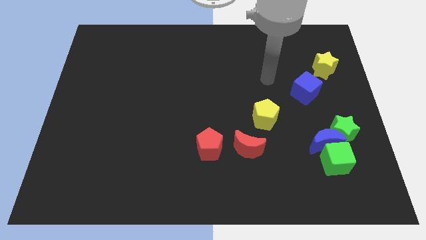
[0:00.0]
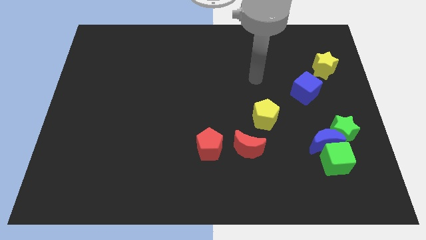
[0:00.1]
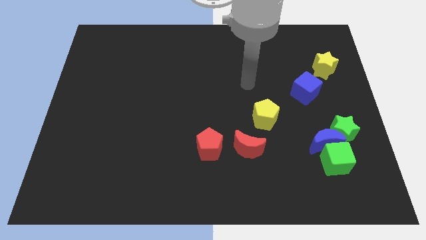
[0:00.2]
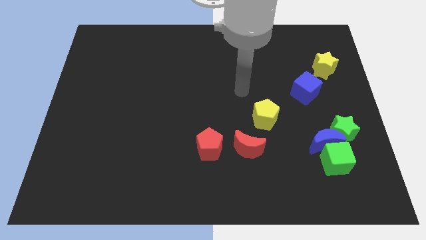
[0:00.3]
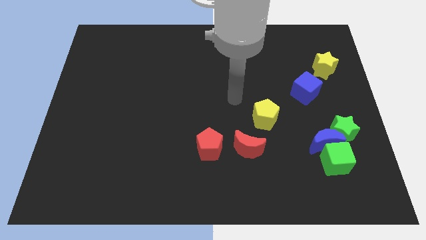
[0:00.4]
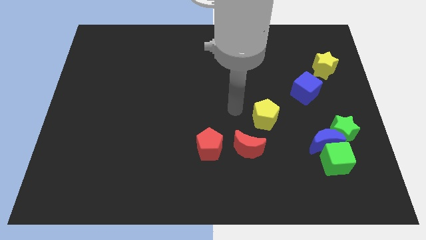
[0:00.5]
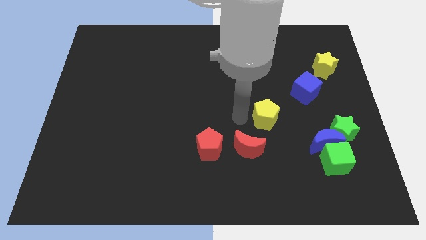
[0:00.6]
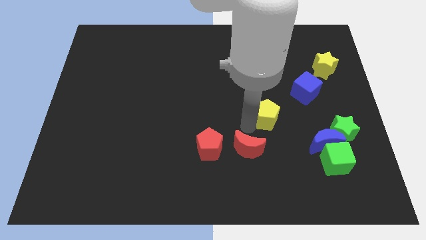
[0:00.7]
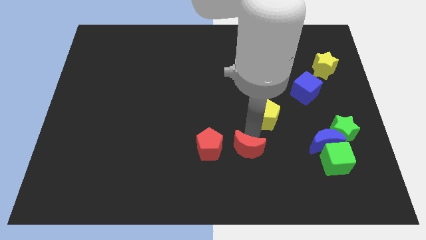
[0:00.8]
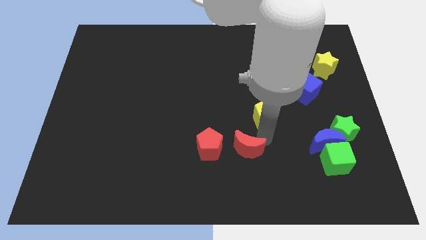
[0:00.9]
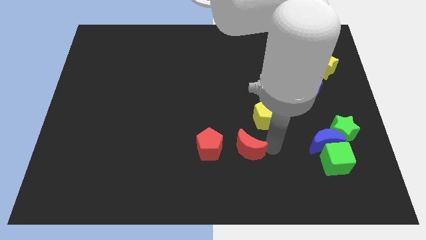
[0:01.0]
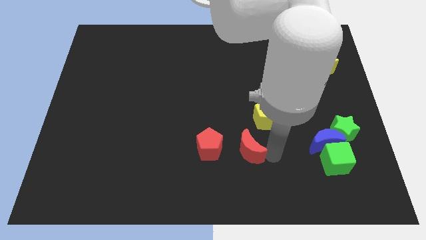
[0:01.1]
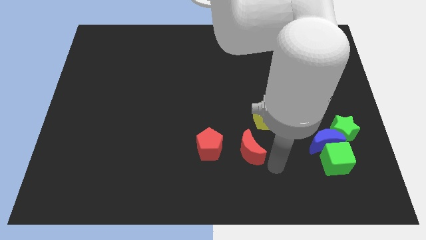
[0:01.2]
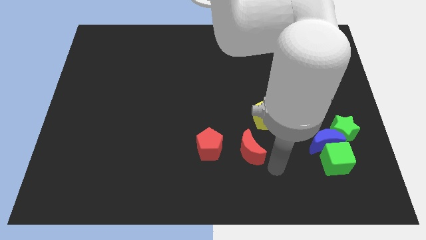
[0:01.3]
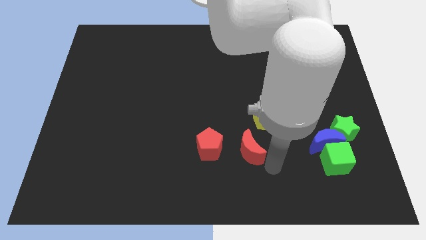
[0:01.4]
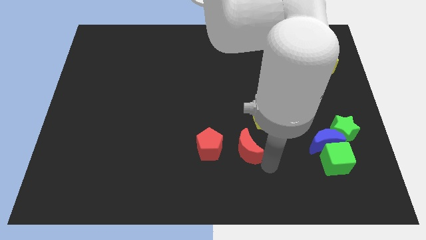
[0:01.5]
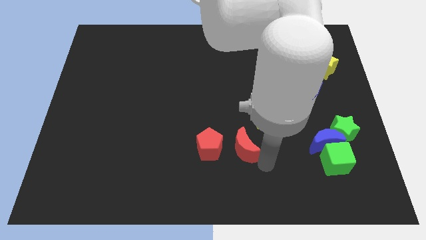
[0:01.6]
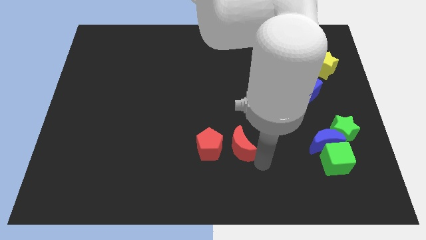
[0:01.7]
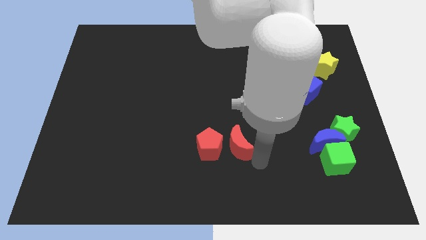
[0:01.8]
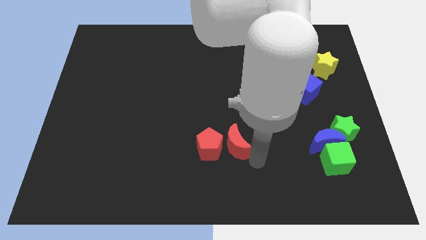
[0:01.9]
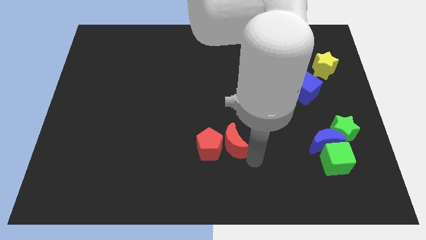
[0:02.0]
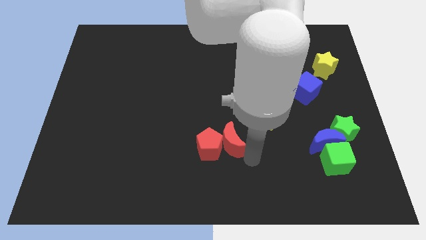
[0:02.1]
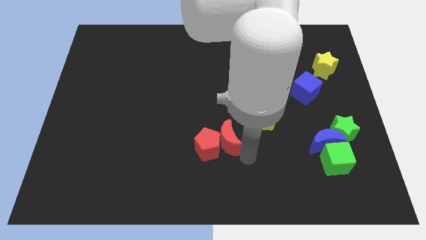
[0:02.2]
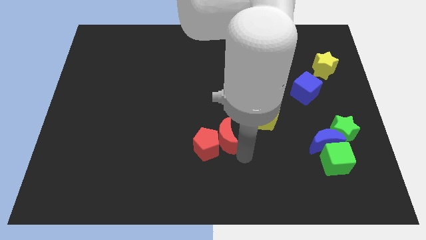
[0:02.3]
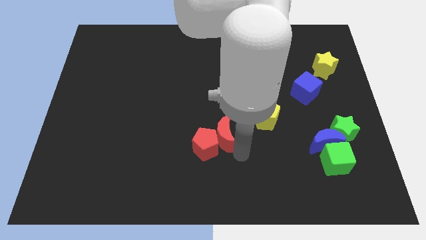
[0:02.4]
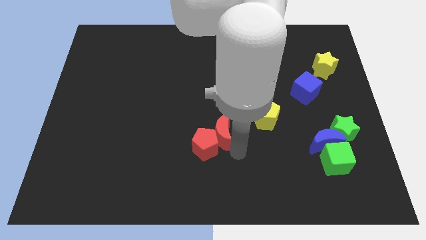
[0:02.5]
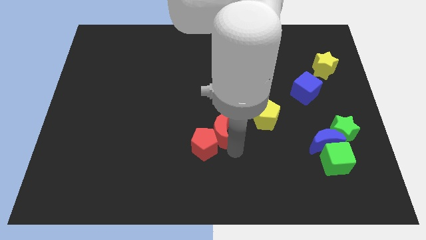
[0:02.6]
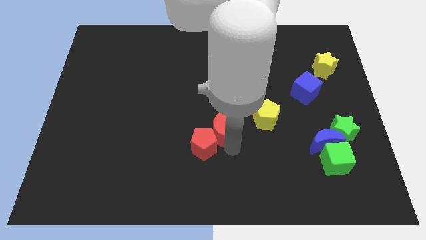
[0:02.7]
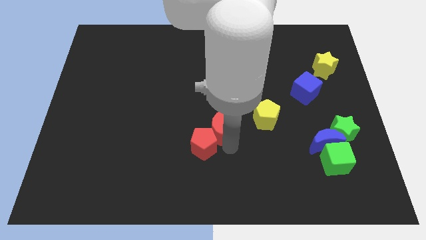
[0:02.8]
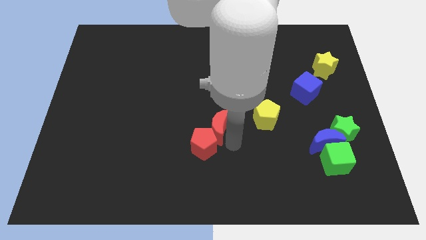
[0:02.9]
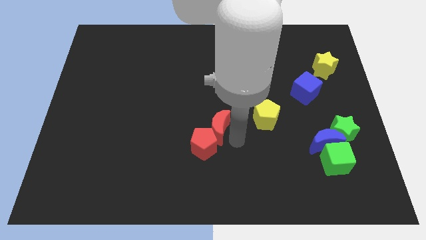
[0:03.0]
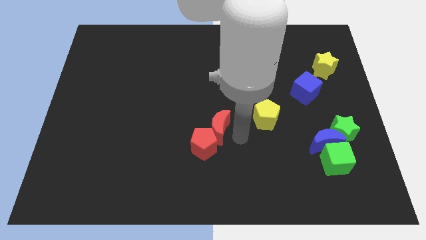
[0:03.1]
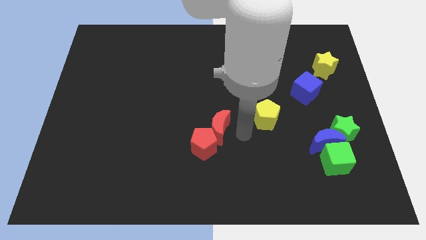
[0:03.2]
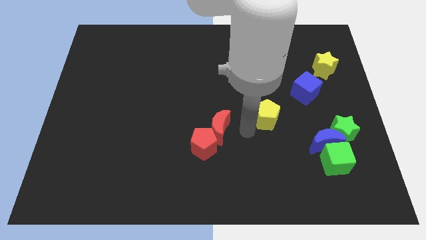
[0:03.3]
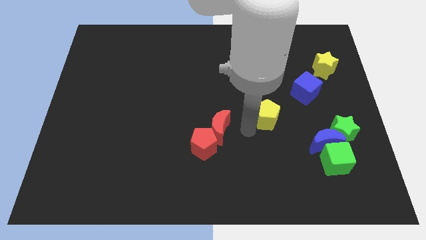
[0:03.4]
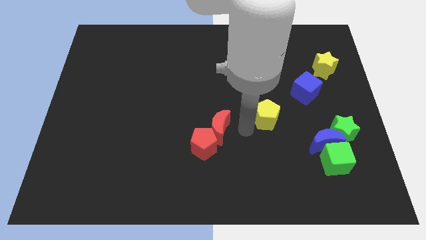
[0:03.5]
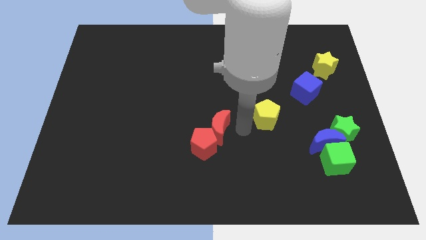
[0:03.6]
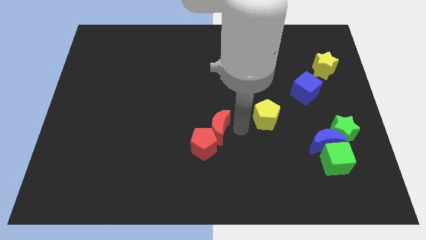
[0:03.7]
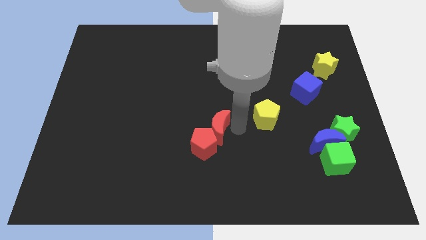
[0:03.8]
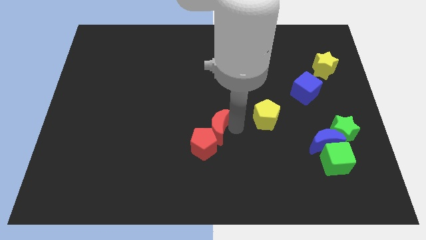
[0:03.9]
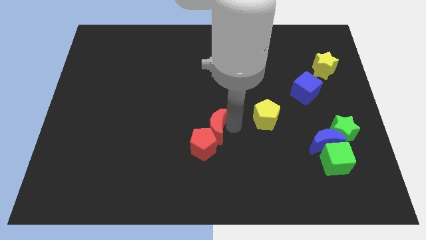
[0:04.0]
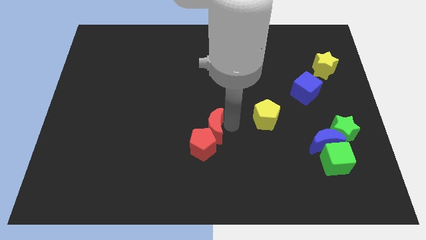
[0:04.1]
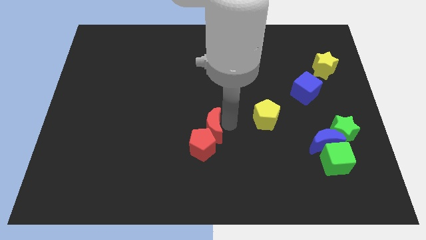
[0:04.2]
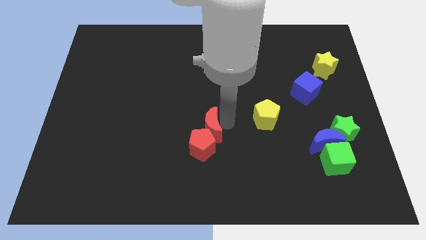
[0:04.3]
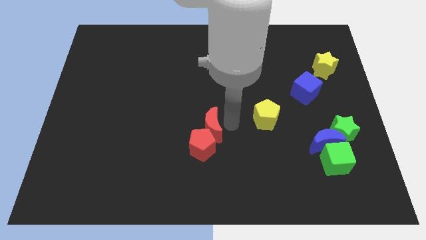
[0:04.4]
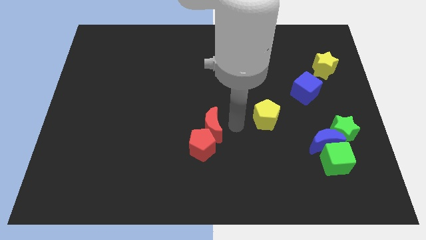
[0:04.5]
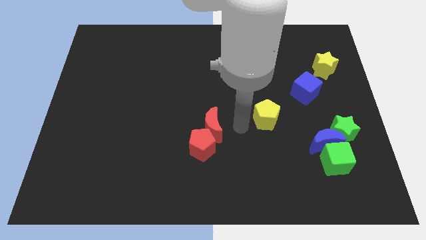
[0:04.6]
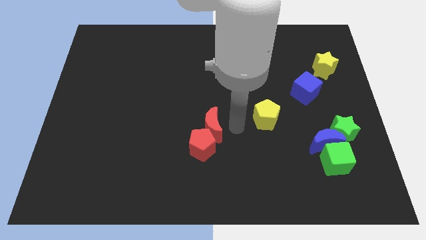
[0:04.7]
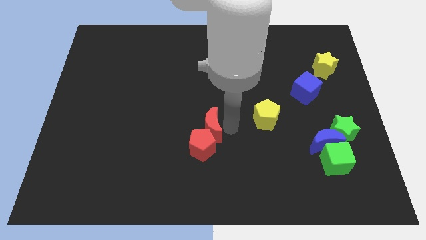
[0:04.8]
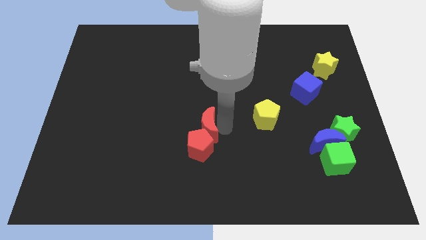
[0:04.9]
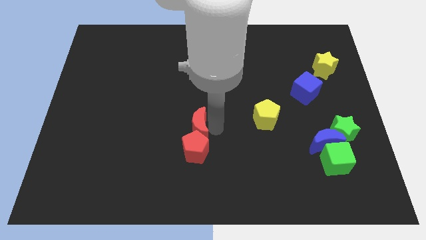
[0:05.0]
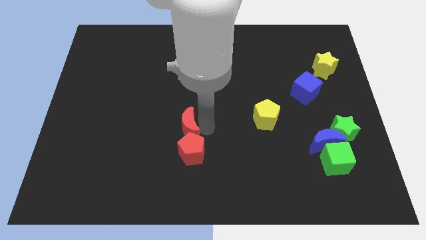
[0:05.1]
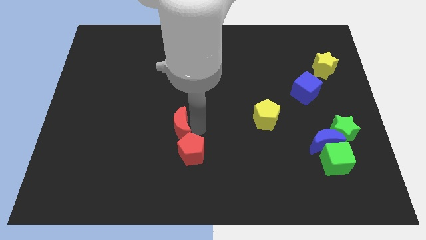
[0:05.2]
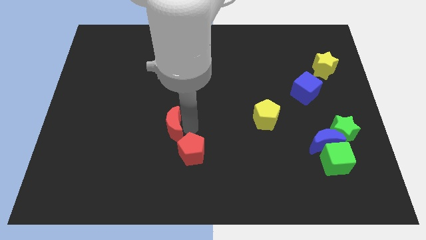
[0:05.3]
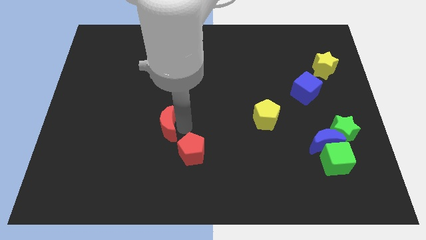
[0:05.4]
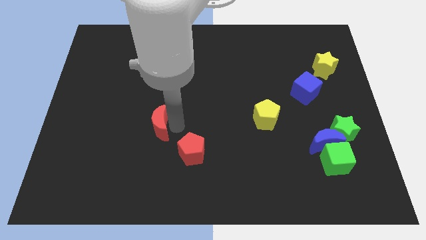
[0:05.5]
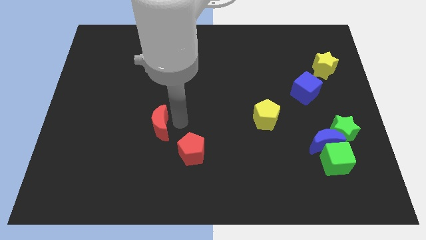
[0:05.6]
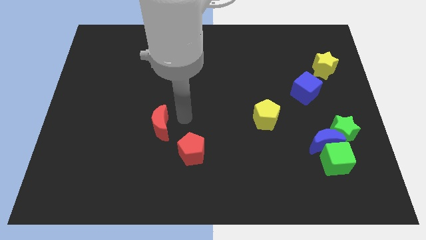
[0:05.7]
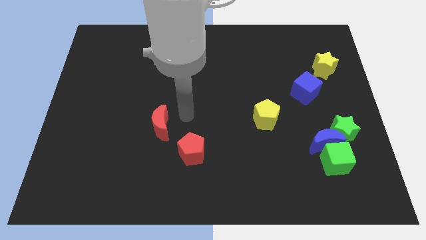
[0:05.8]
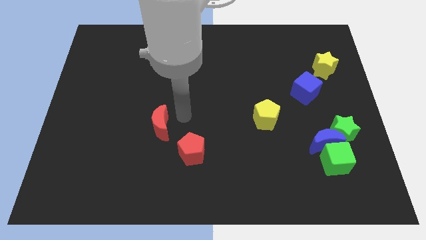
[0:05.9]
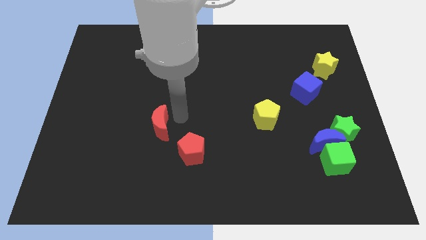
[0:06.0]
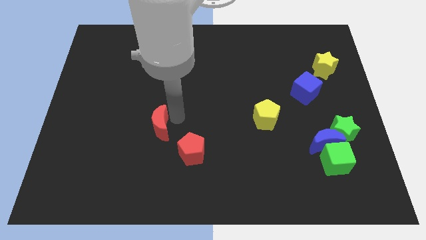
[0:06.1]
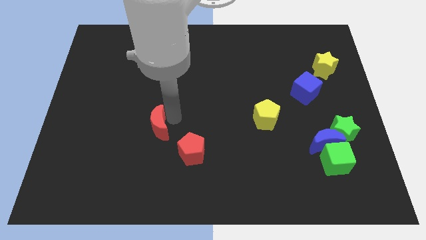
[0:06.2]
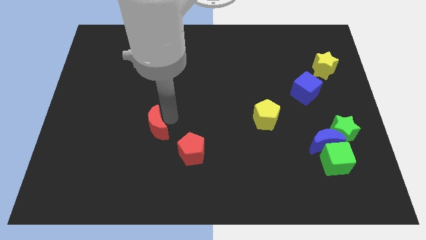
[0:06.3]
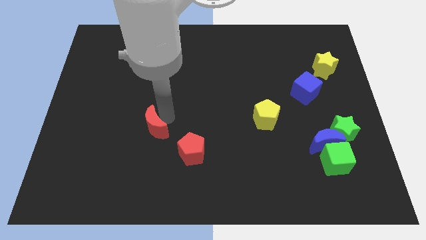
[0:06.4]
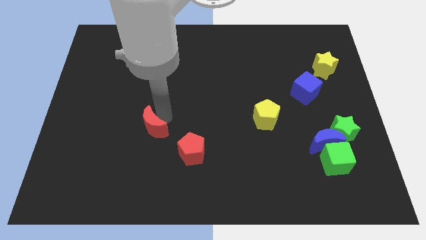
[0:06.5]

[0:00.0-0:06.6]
push the red moon to the left

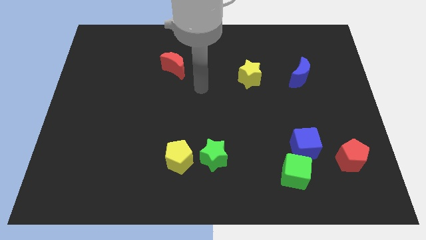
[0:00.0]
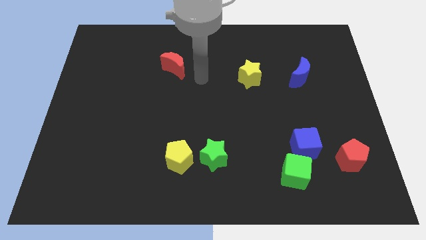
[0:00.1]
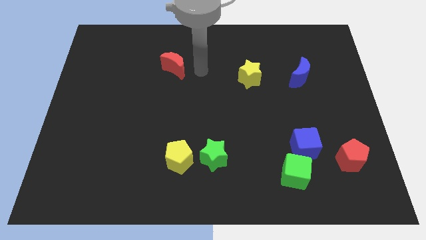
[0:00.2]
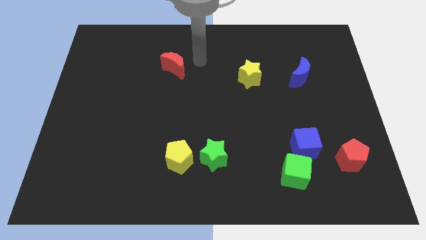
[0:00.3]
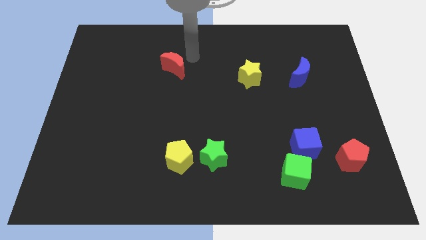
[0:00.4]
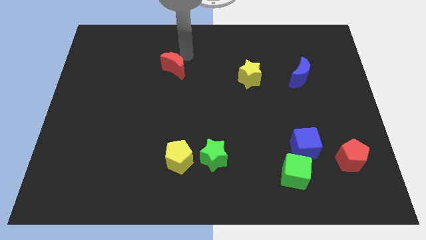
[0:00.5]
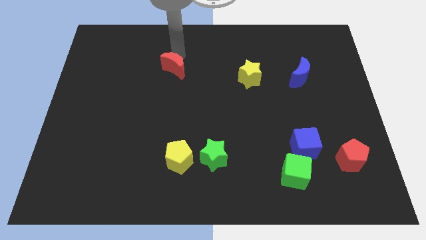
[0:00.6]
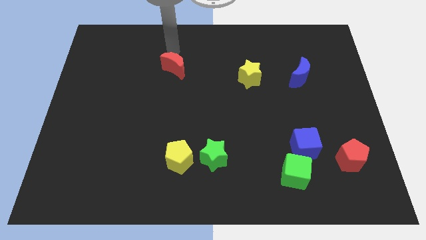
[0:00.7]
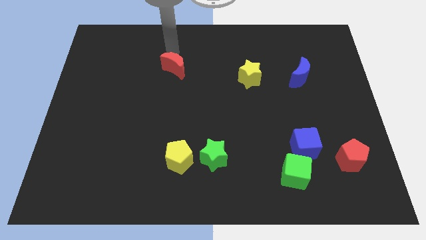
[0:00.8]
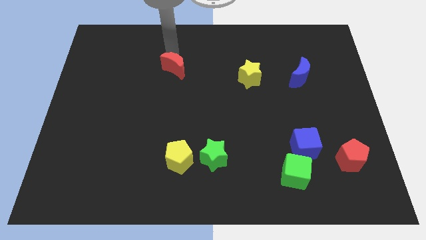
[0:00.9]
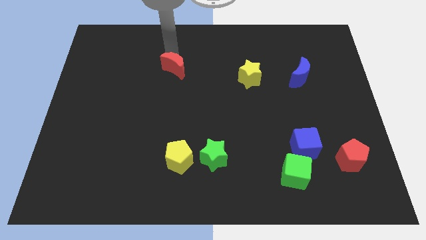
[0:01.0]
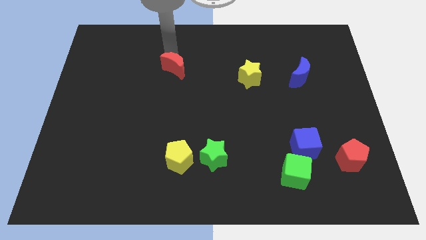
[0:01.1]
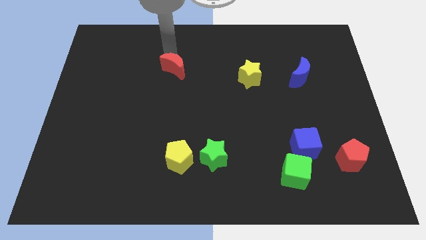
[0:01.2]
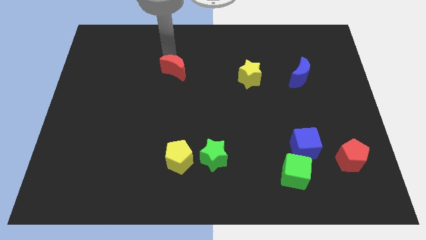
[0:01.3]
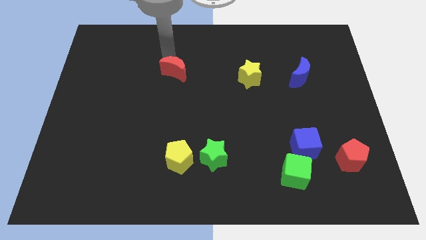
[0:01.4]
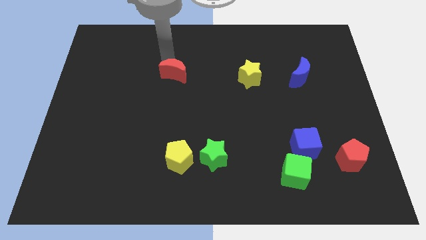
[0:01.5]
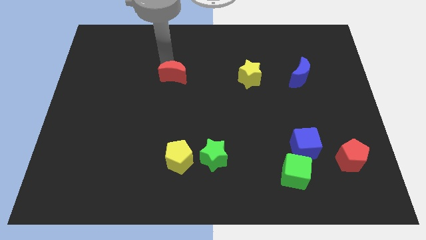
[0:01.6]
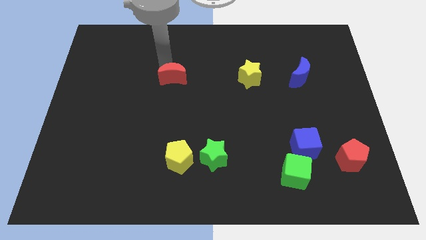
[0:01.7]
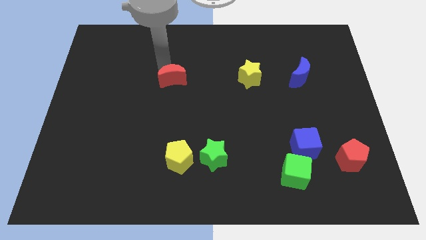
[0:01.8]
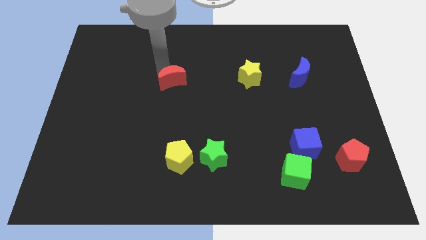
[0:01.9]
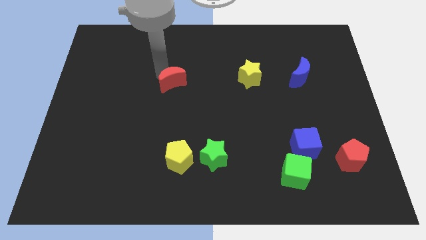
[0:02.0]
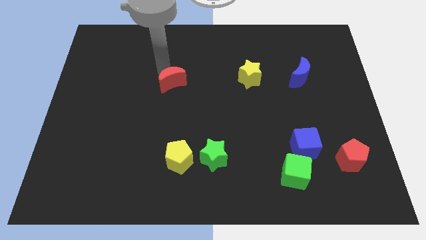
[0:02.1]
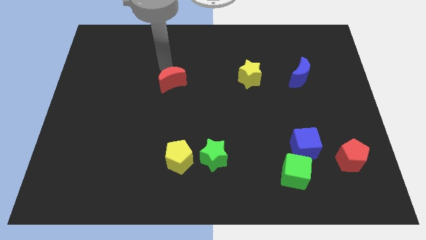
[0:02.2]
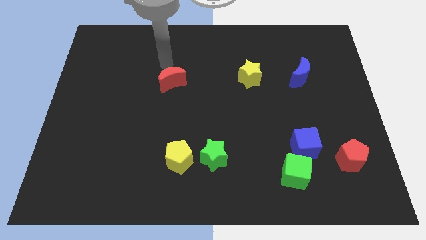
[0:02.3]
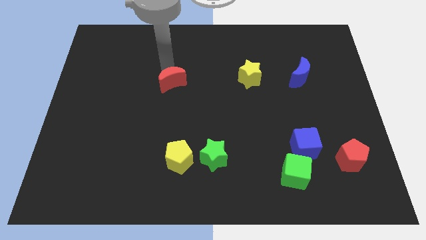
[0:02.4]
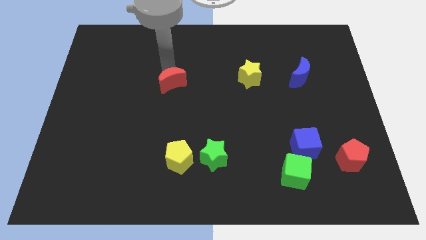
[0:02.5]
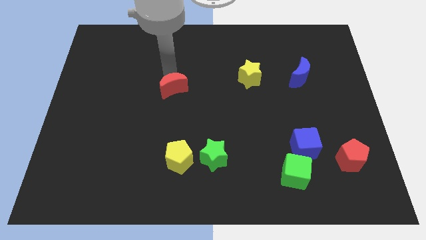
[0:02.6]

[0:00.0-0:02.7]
slightly push the red moon down
